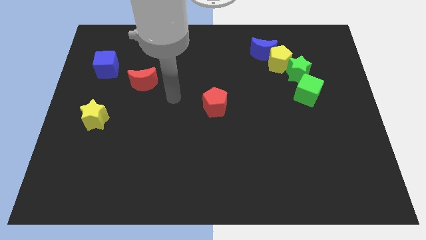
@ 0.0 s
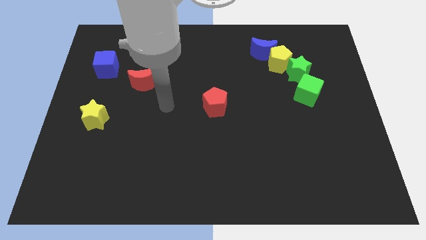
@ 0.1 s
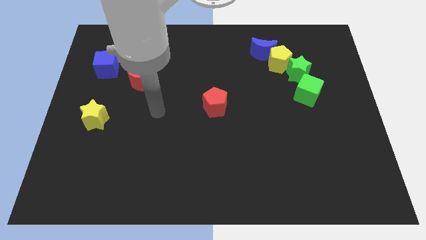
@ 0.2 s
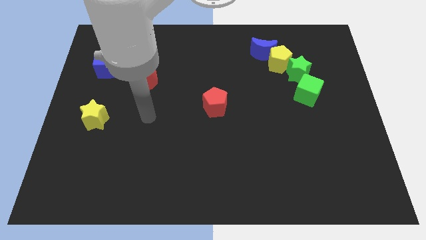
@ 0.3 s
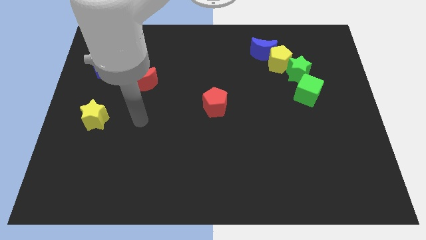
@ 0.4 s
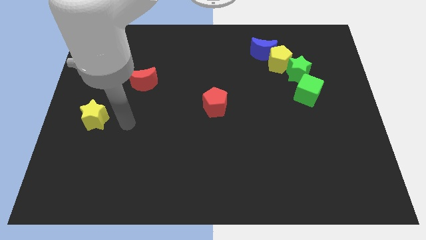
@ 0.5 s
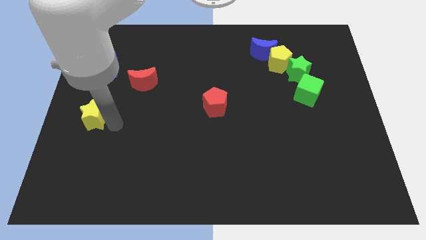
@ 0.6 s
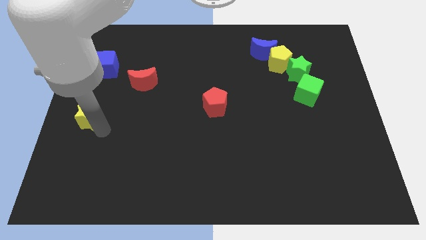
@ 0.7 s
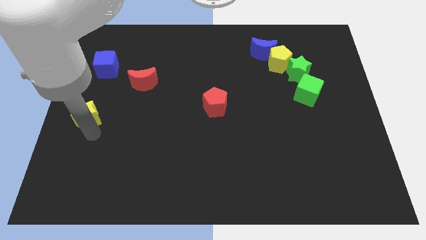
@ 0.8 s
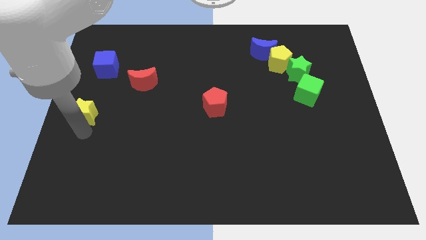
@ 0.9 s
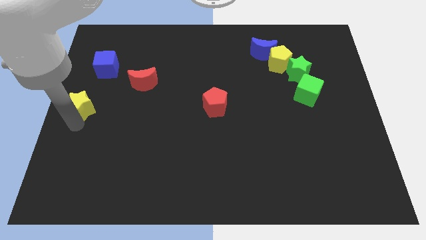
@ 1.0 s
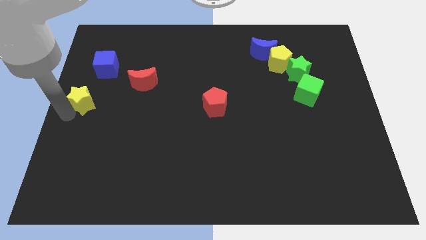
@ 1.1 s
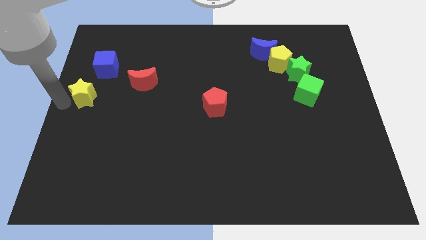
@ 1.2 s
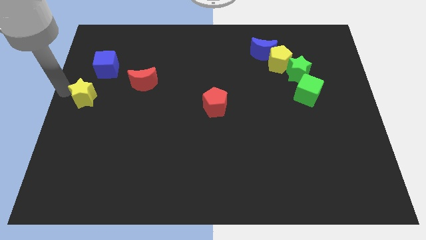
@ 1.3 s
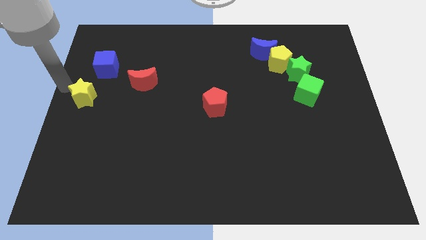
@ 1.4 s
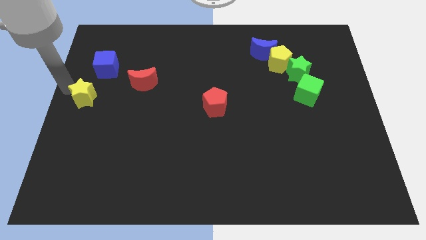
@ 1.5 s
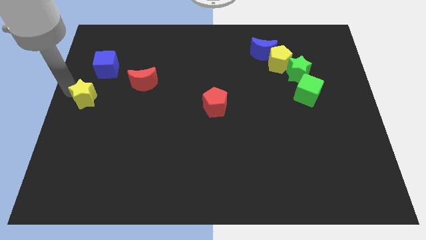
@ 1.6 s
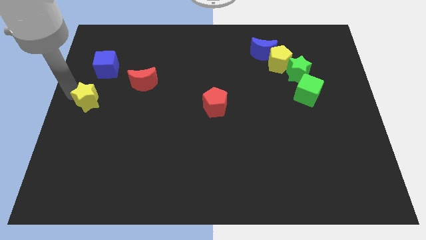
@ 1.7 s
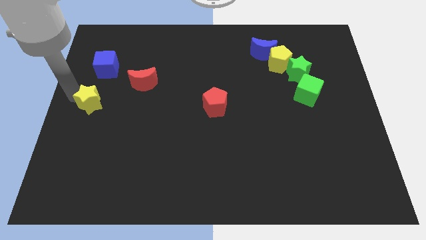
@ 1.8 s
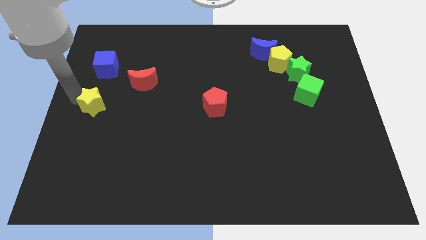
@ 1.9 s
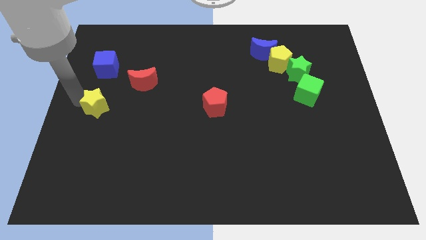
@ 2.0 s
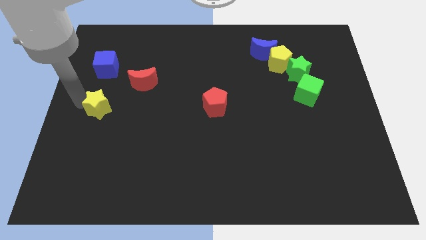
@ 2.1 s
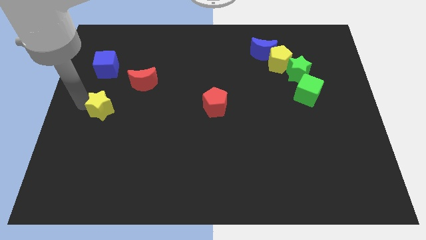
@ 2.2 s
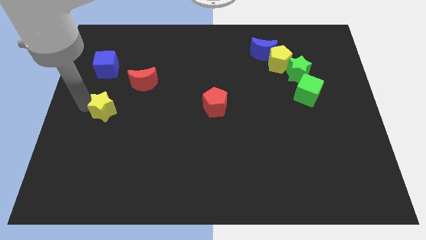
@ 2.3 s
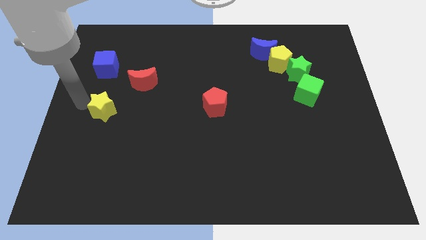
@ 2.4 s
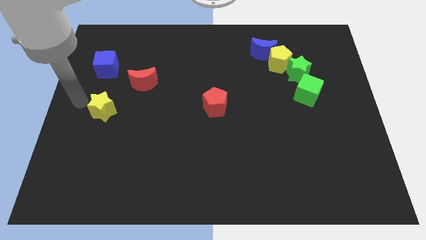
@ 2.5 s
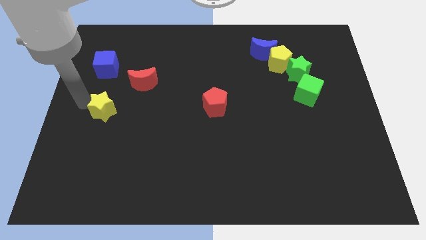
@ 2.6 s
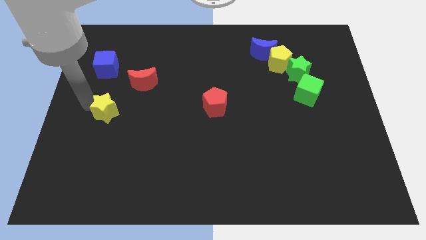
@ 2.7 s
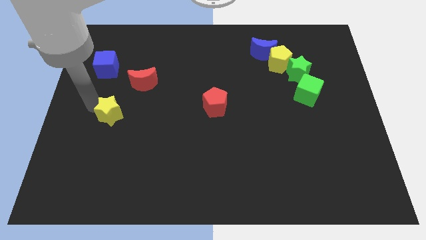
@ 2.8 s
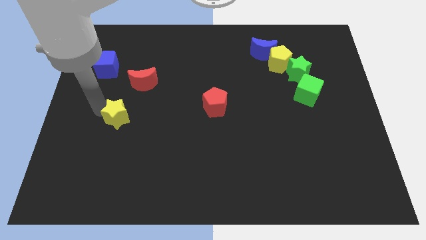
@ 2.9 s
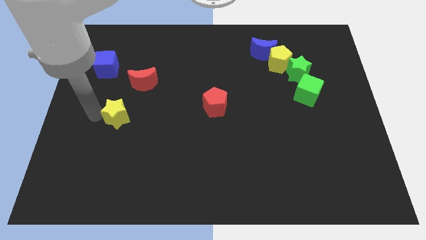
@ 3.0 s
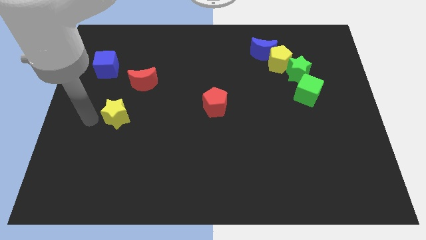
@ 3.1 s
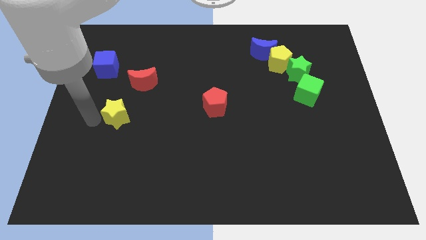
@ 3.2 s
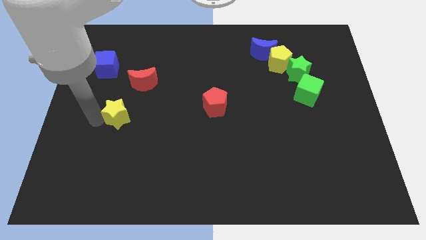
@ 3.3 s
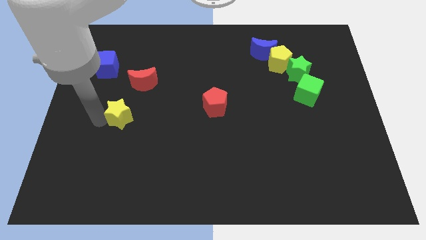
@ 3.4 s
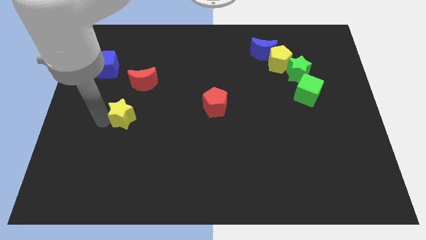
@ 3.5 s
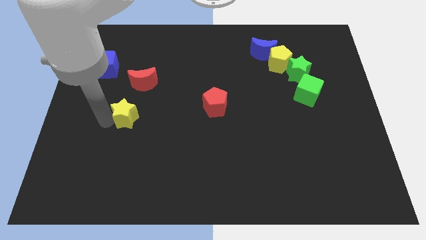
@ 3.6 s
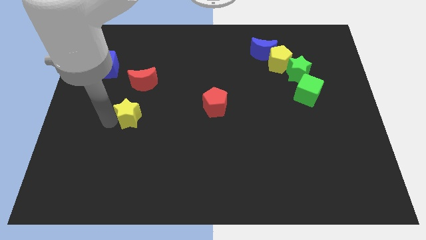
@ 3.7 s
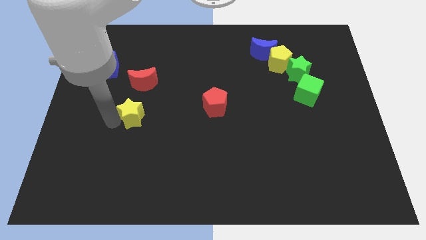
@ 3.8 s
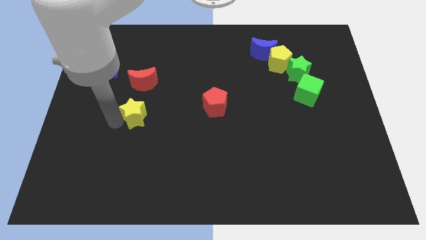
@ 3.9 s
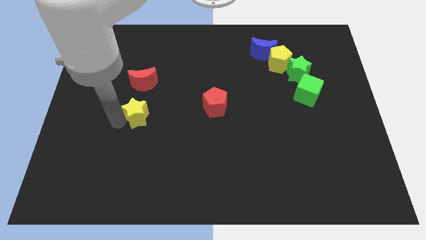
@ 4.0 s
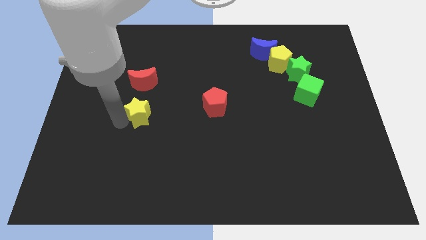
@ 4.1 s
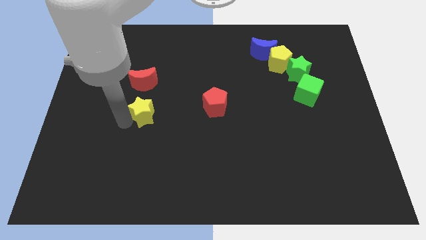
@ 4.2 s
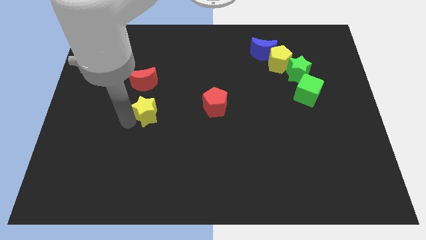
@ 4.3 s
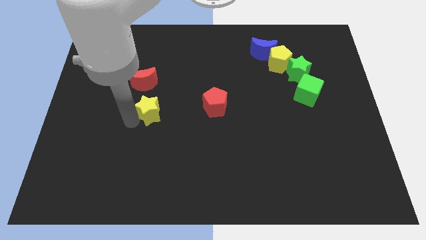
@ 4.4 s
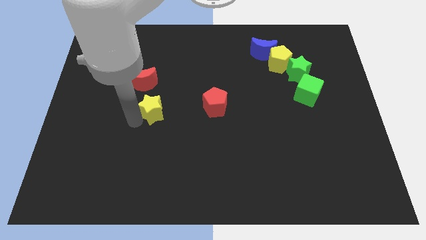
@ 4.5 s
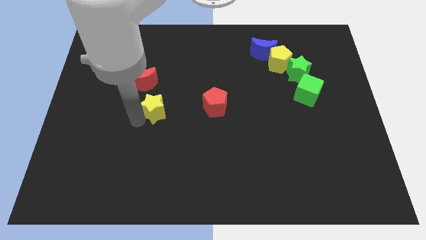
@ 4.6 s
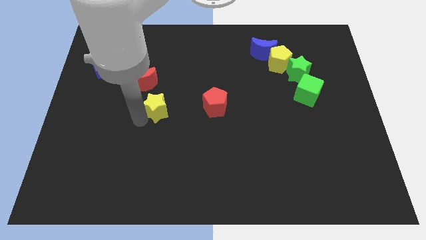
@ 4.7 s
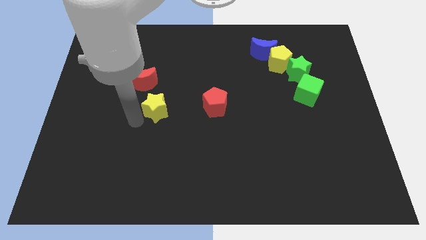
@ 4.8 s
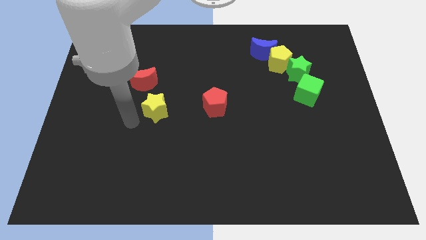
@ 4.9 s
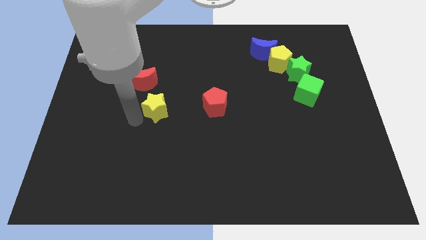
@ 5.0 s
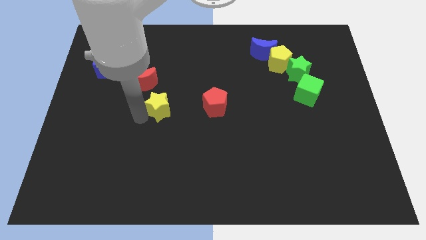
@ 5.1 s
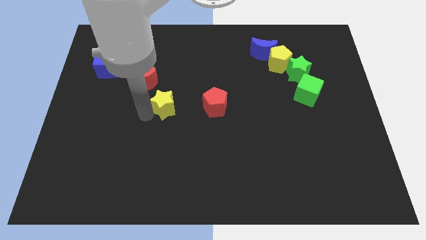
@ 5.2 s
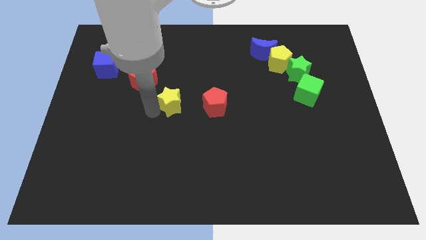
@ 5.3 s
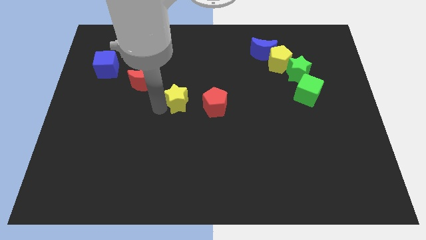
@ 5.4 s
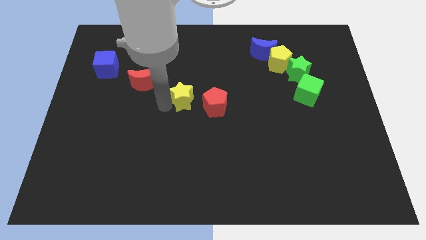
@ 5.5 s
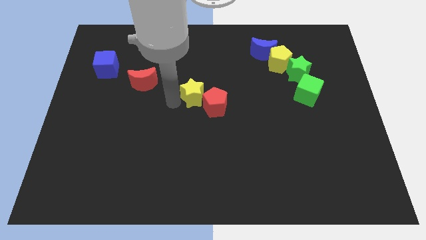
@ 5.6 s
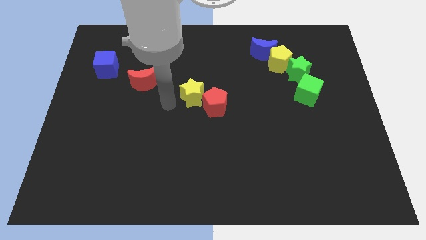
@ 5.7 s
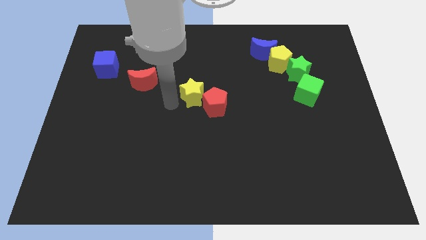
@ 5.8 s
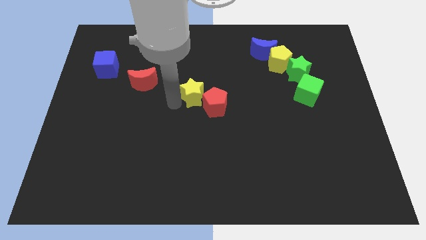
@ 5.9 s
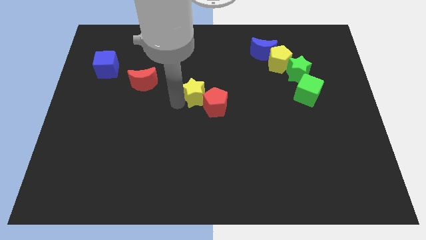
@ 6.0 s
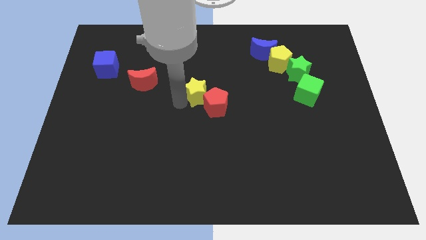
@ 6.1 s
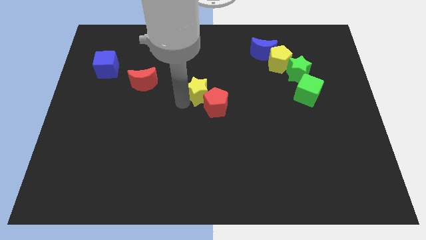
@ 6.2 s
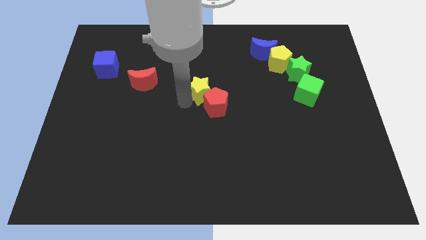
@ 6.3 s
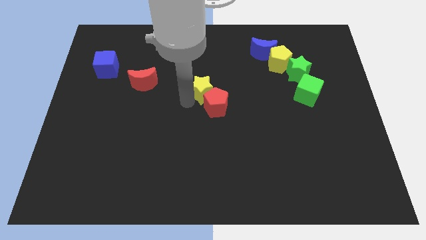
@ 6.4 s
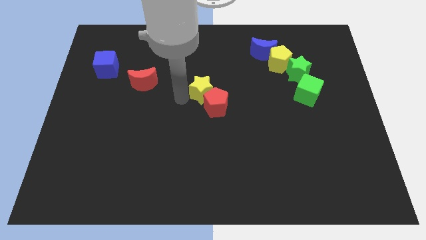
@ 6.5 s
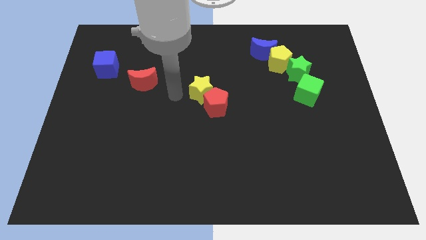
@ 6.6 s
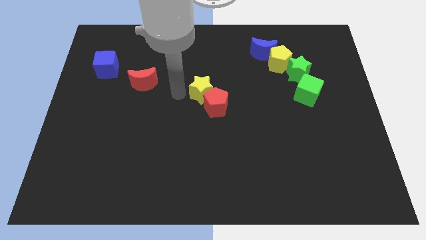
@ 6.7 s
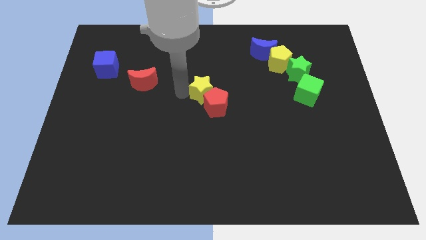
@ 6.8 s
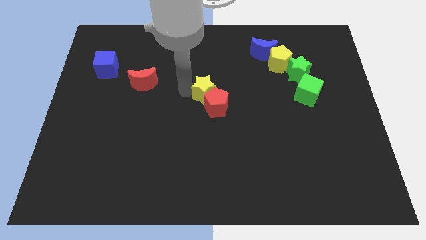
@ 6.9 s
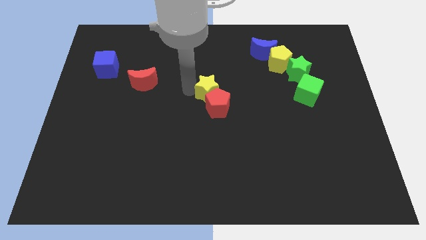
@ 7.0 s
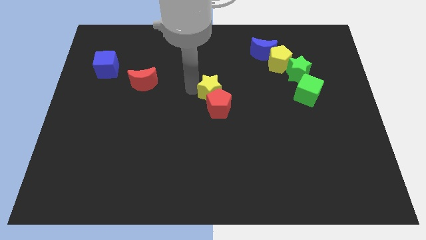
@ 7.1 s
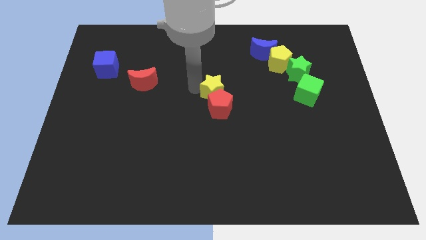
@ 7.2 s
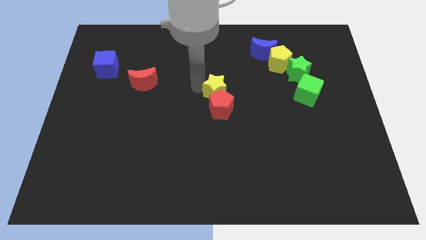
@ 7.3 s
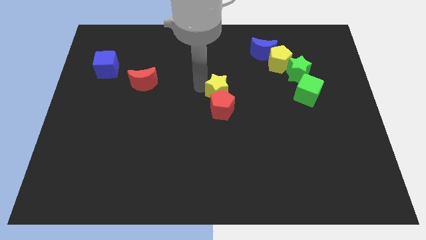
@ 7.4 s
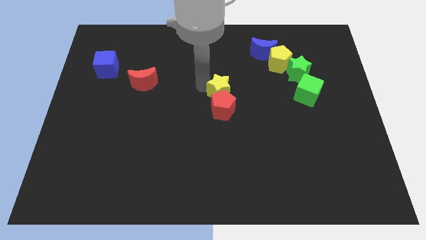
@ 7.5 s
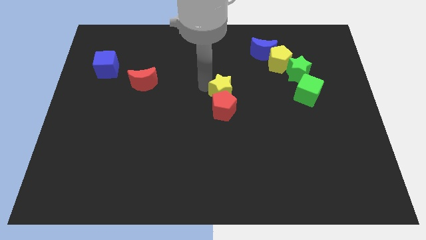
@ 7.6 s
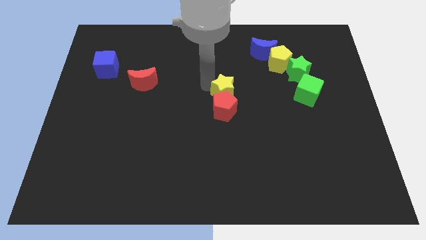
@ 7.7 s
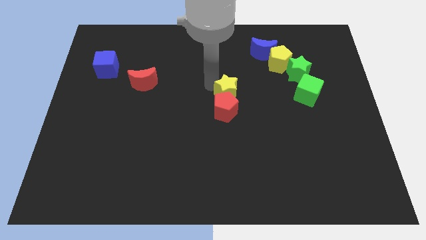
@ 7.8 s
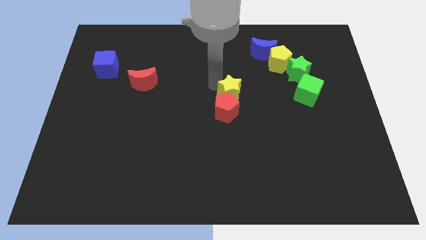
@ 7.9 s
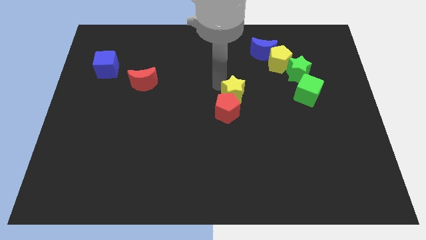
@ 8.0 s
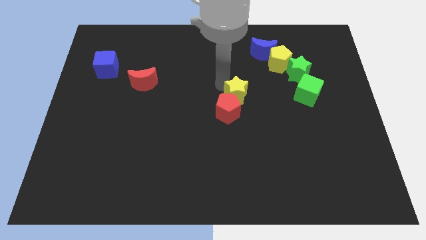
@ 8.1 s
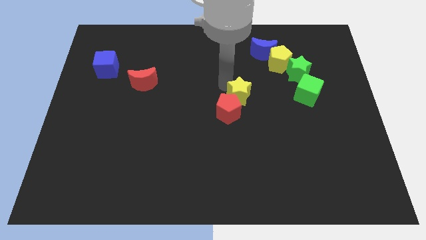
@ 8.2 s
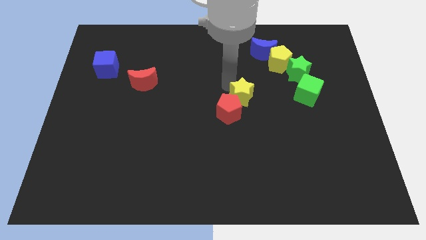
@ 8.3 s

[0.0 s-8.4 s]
push the yellow star just left of the green cube
